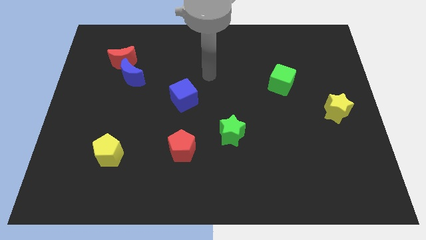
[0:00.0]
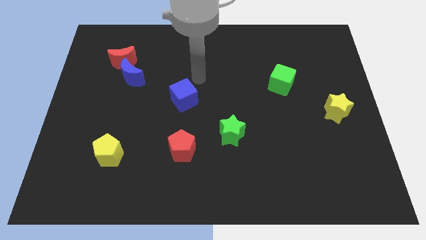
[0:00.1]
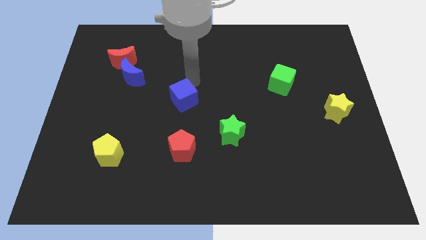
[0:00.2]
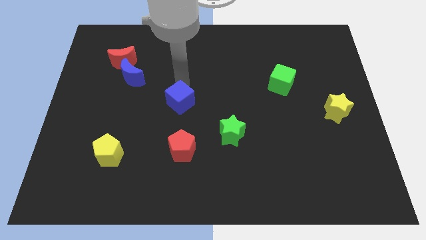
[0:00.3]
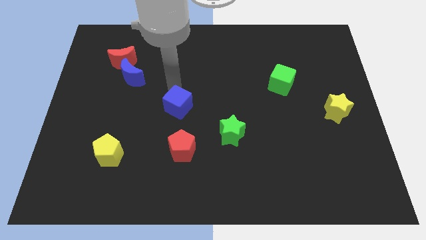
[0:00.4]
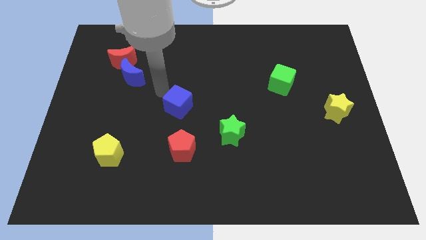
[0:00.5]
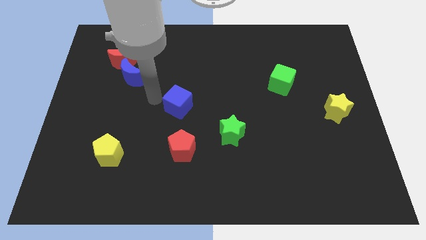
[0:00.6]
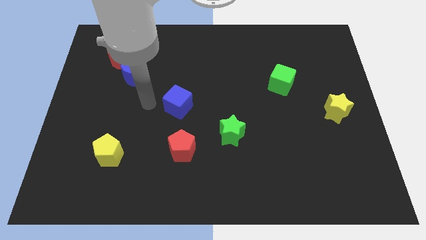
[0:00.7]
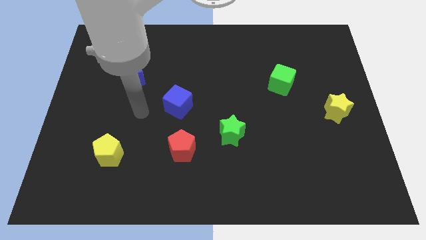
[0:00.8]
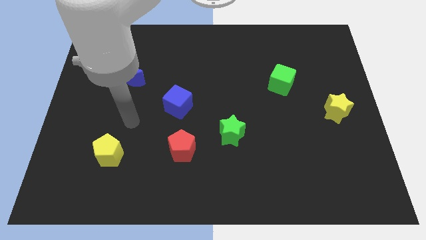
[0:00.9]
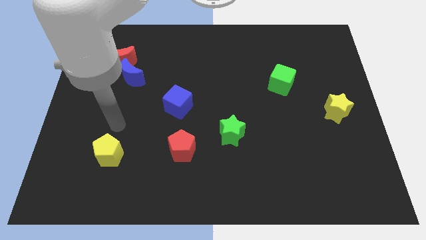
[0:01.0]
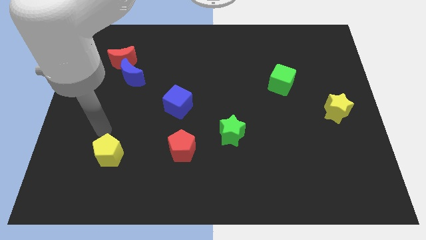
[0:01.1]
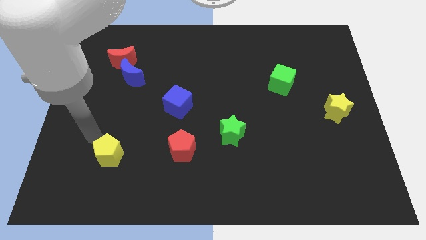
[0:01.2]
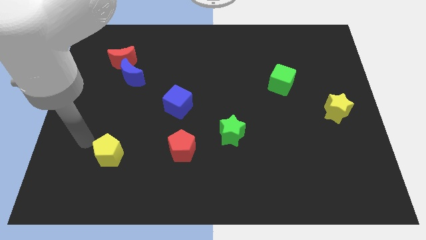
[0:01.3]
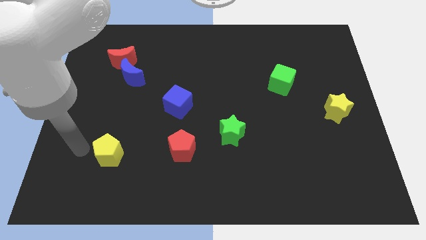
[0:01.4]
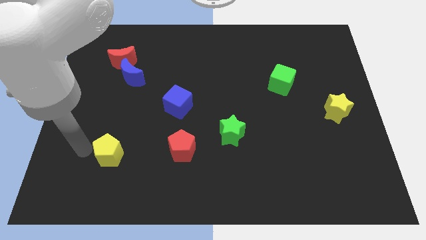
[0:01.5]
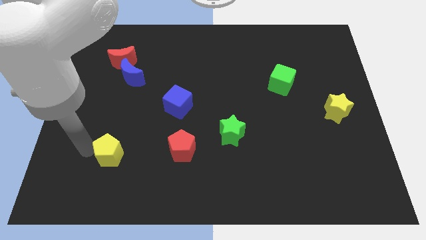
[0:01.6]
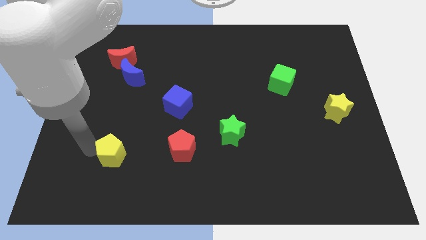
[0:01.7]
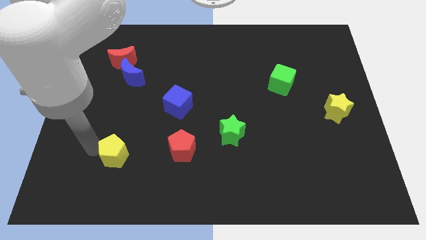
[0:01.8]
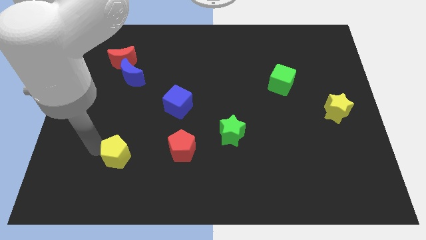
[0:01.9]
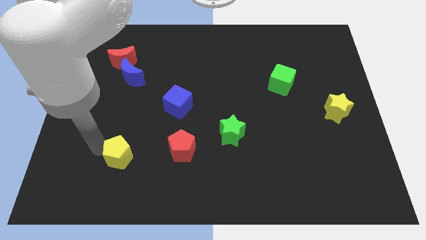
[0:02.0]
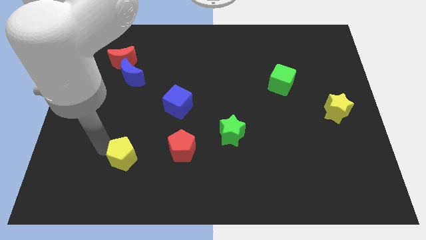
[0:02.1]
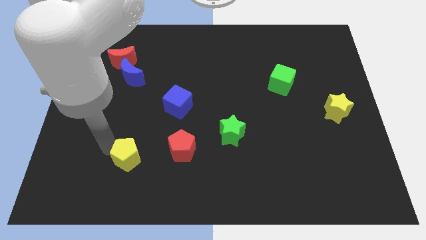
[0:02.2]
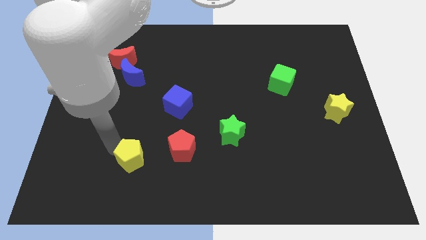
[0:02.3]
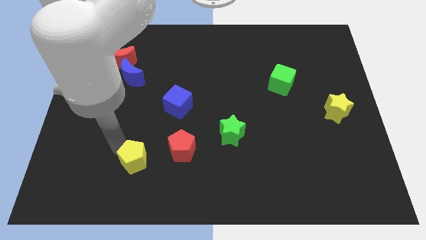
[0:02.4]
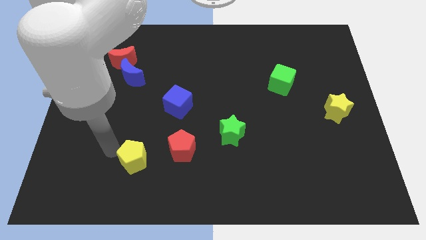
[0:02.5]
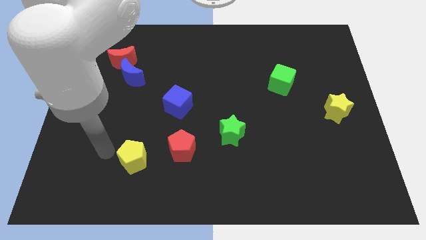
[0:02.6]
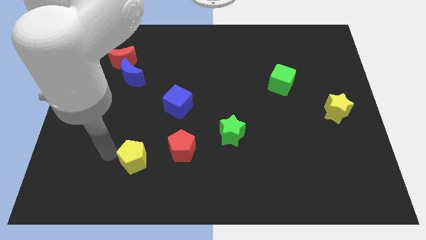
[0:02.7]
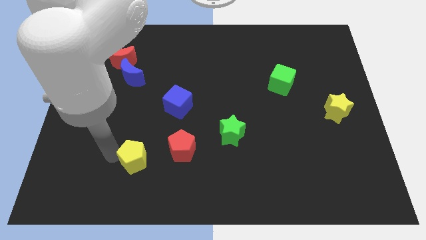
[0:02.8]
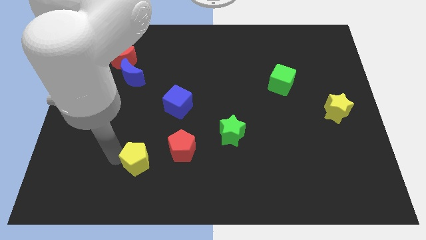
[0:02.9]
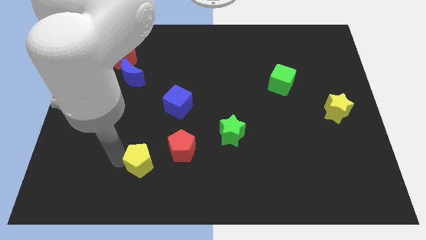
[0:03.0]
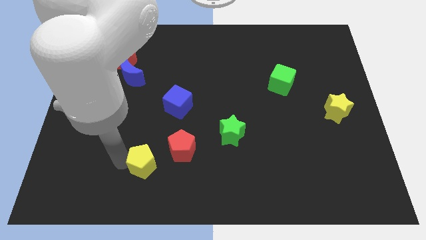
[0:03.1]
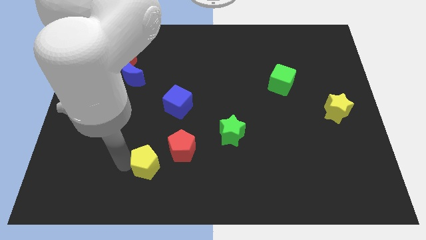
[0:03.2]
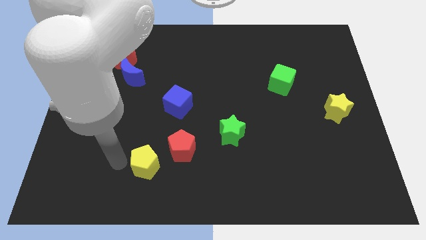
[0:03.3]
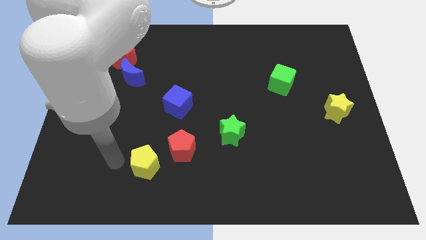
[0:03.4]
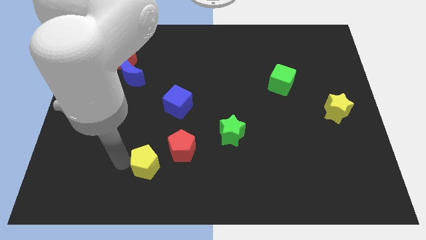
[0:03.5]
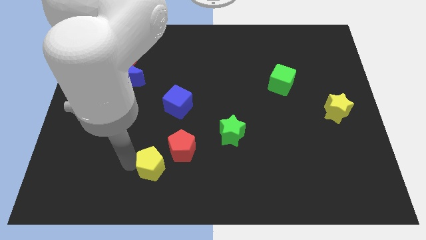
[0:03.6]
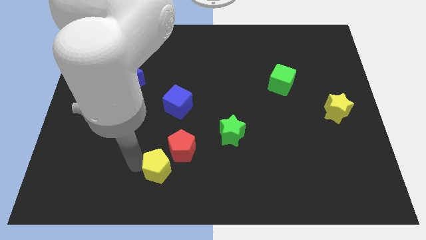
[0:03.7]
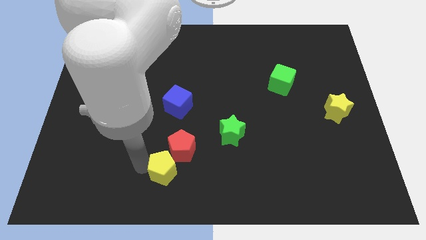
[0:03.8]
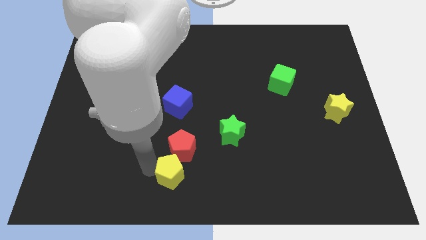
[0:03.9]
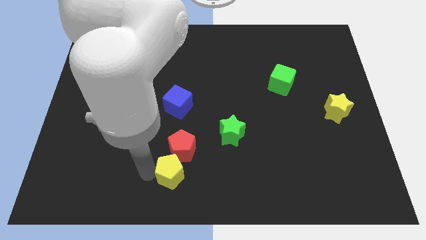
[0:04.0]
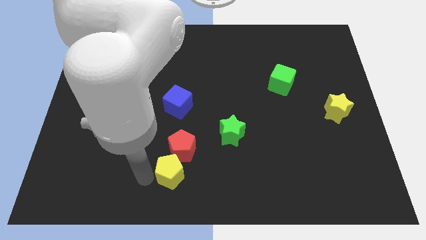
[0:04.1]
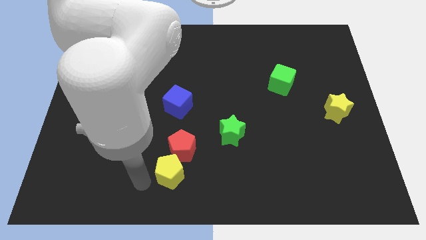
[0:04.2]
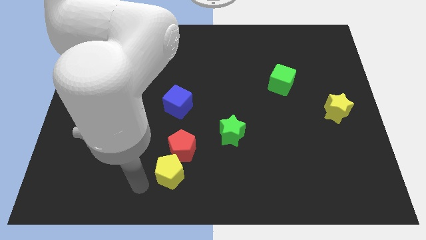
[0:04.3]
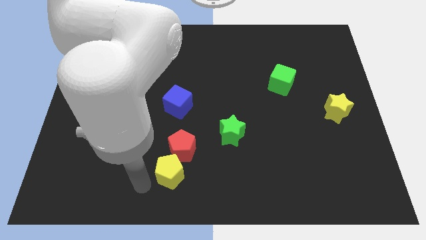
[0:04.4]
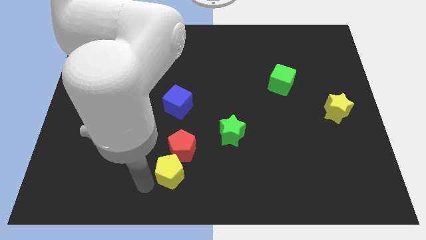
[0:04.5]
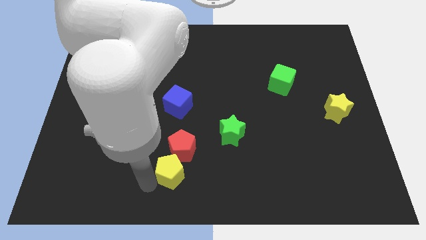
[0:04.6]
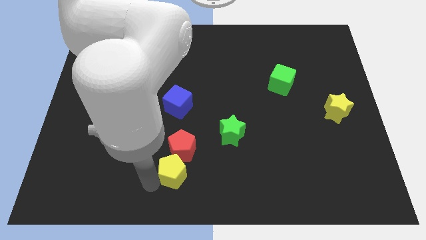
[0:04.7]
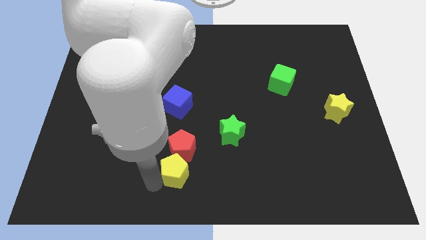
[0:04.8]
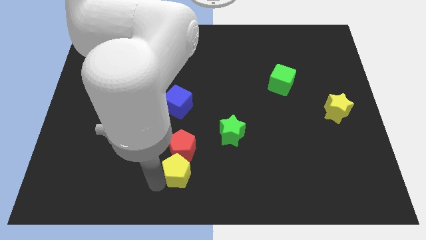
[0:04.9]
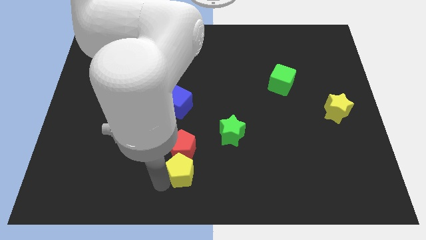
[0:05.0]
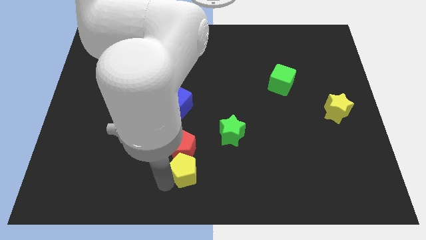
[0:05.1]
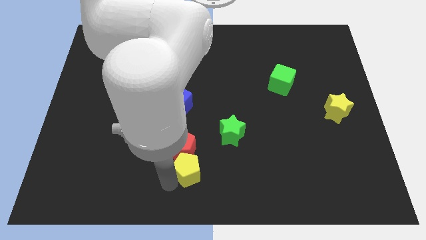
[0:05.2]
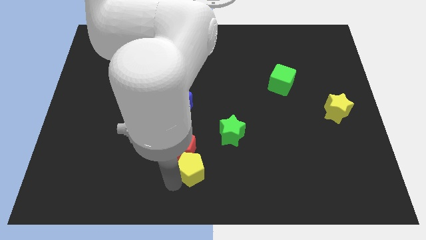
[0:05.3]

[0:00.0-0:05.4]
move the yellow pentagon to the bottom left side of the green star

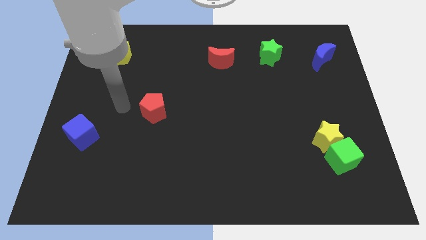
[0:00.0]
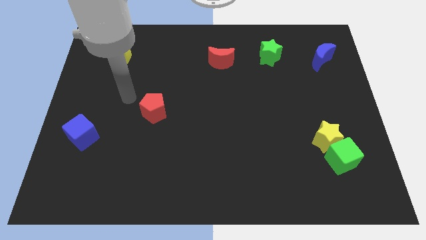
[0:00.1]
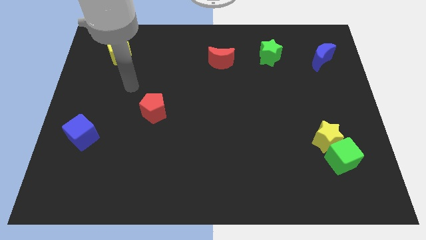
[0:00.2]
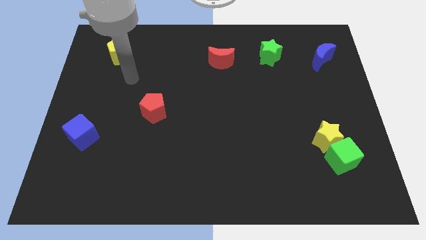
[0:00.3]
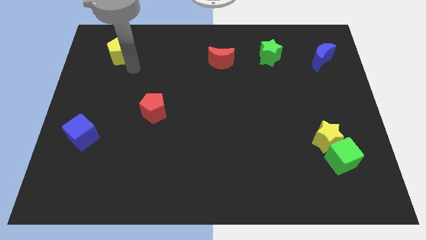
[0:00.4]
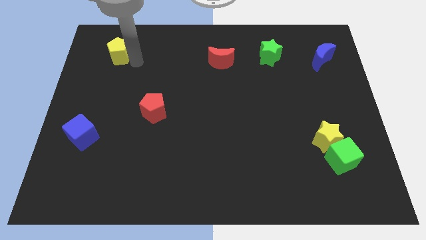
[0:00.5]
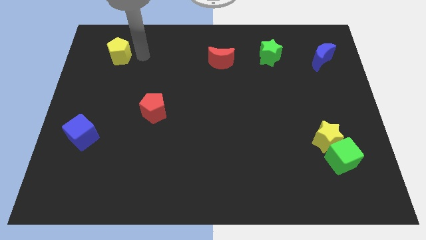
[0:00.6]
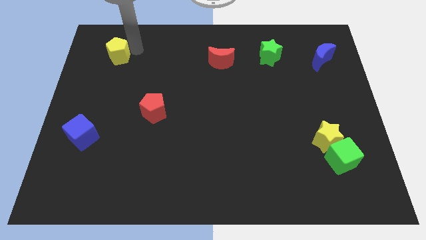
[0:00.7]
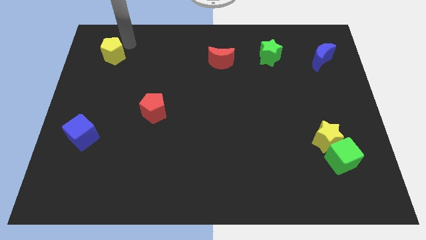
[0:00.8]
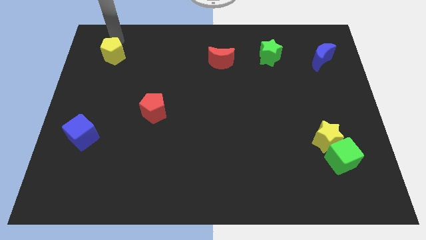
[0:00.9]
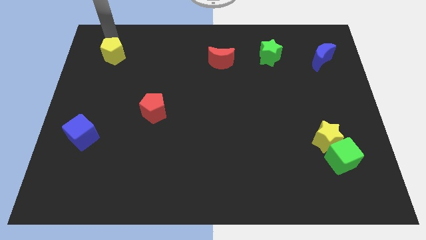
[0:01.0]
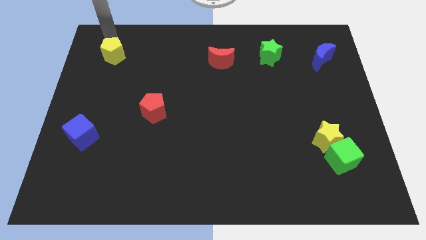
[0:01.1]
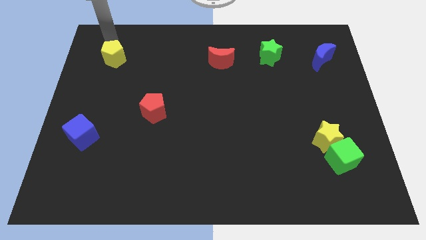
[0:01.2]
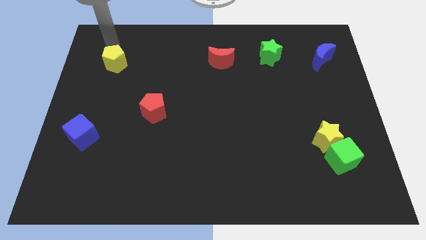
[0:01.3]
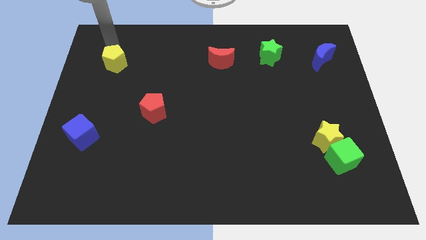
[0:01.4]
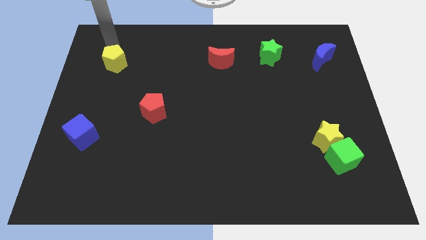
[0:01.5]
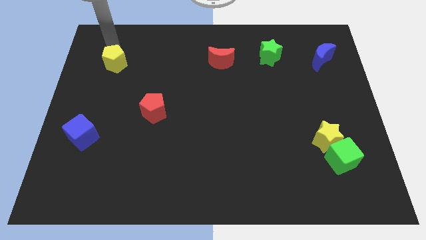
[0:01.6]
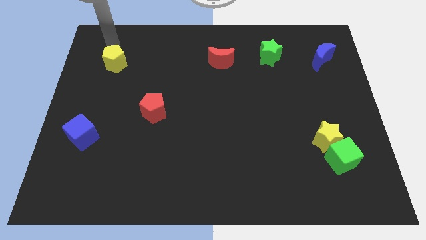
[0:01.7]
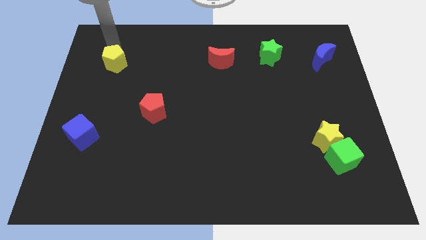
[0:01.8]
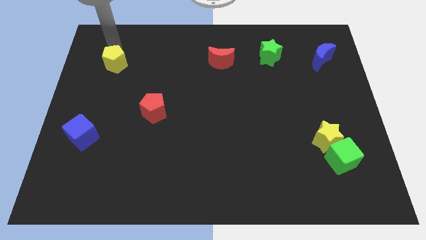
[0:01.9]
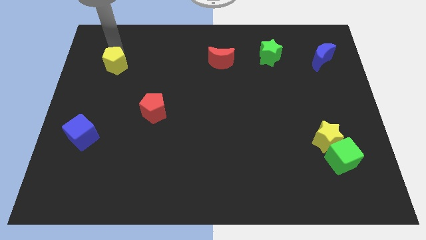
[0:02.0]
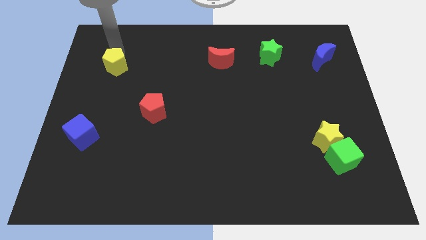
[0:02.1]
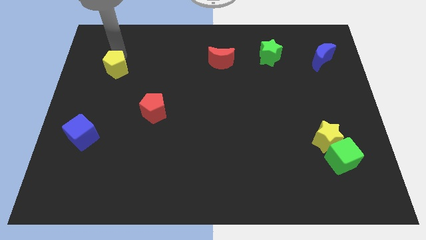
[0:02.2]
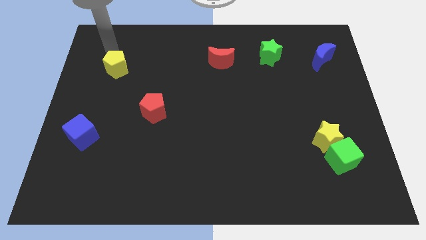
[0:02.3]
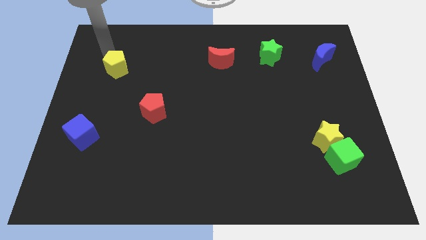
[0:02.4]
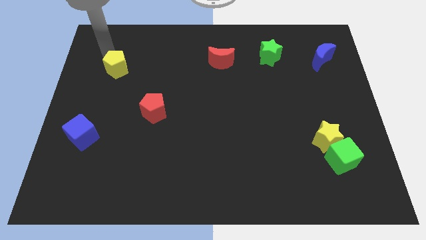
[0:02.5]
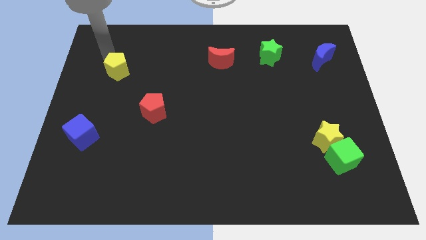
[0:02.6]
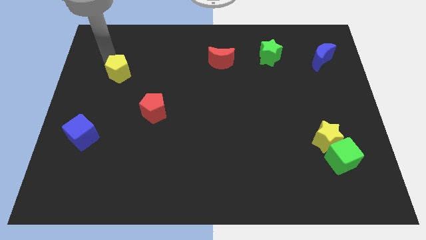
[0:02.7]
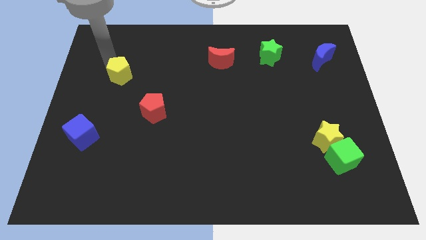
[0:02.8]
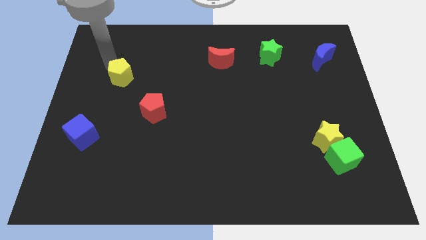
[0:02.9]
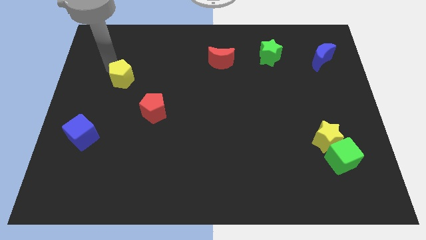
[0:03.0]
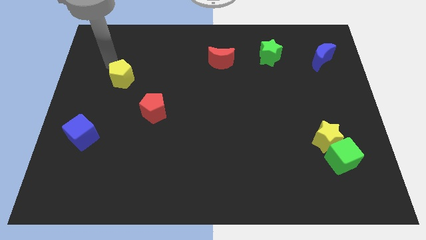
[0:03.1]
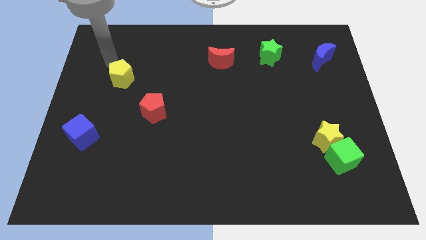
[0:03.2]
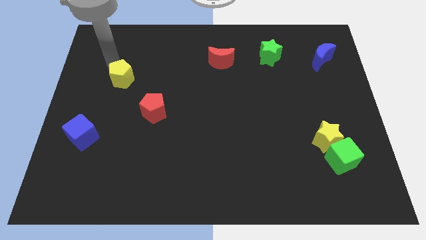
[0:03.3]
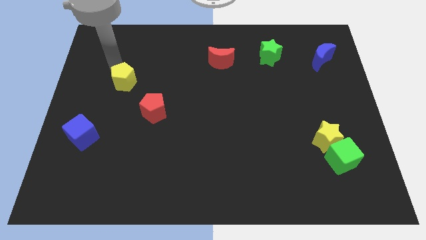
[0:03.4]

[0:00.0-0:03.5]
slide the yellow pentagon diagonally up and to the left of the red pentagon
